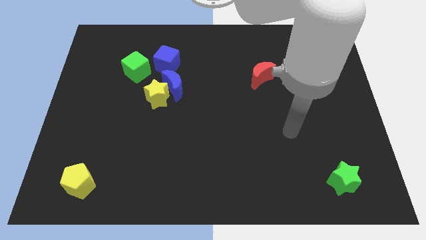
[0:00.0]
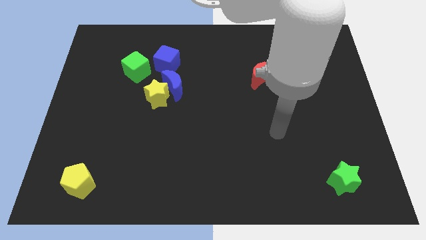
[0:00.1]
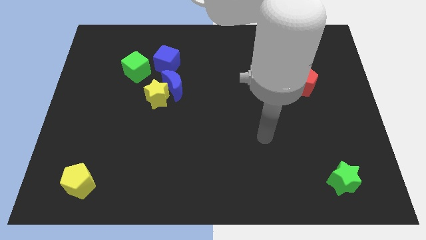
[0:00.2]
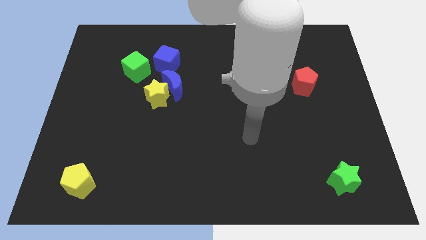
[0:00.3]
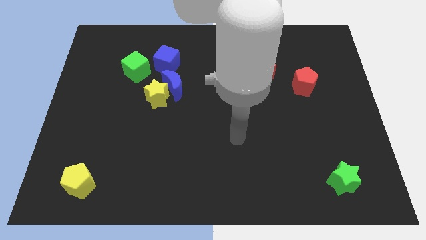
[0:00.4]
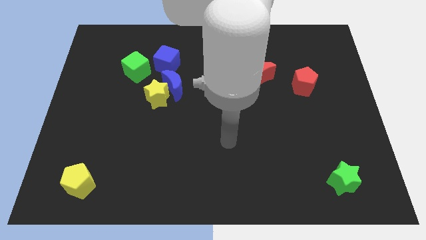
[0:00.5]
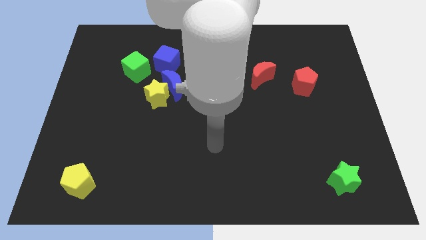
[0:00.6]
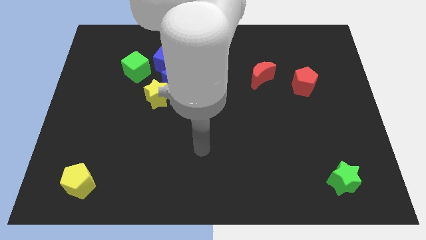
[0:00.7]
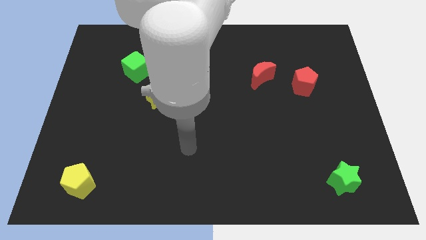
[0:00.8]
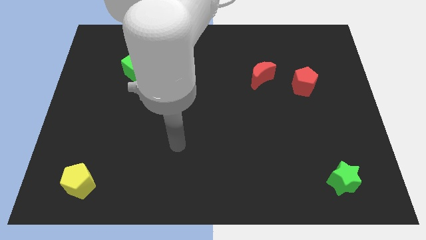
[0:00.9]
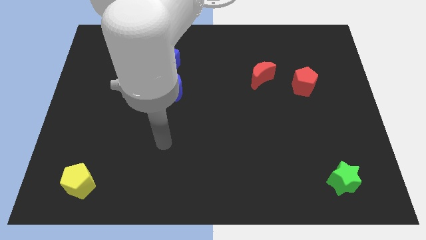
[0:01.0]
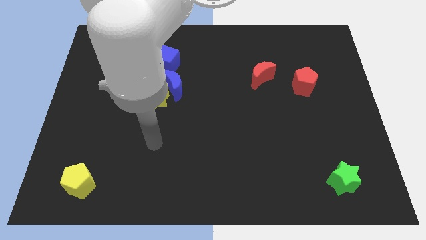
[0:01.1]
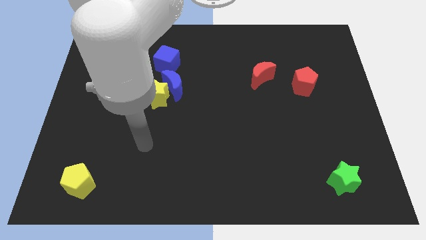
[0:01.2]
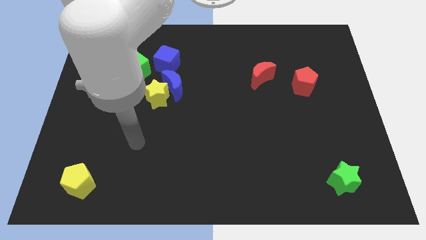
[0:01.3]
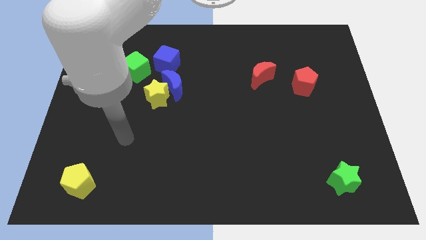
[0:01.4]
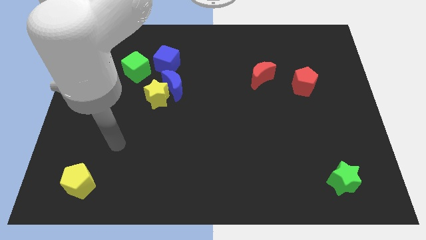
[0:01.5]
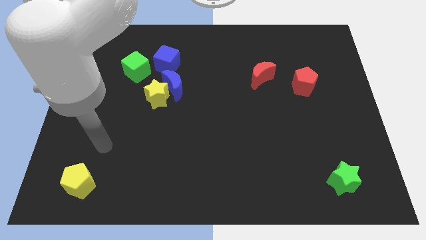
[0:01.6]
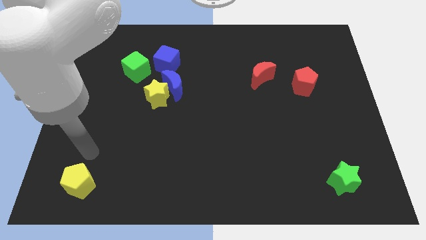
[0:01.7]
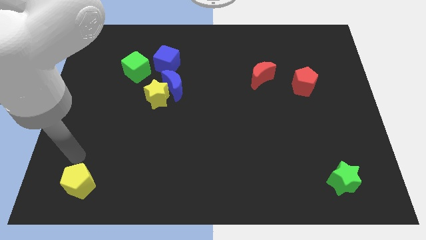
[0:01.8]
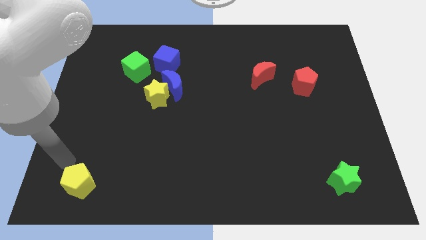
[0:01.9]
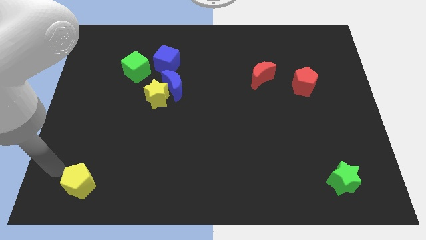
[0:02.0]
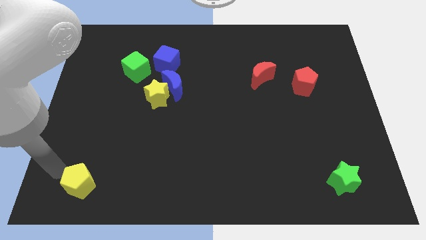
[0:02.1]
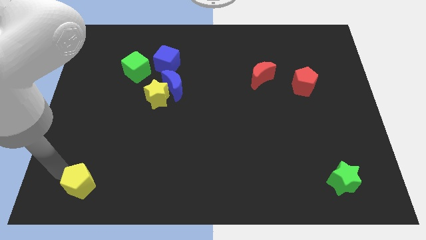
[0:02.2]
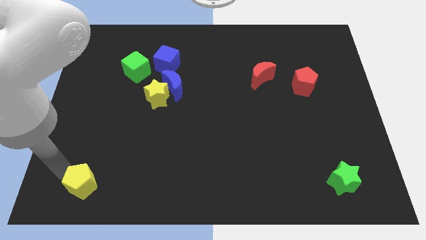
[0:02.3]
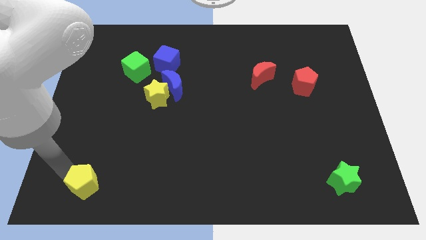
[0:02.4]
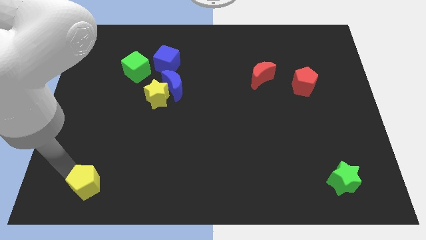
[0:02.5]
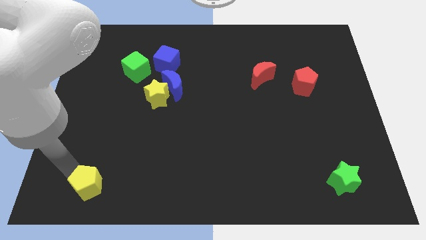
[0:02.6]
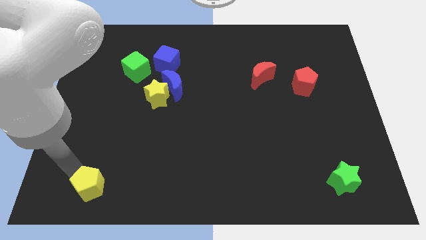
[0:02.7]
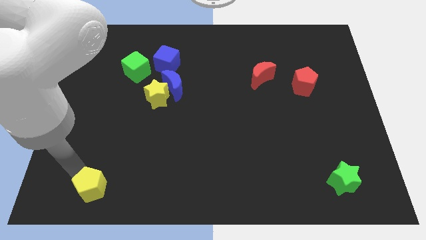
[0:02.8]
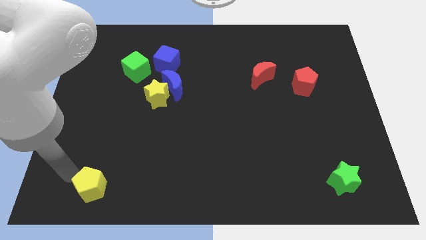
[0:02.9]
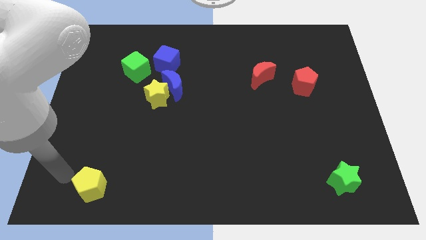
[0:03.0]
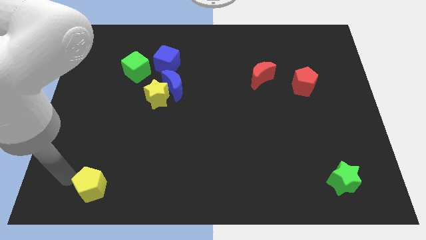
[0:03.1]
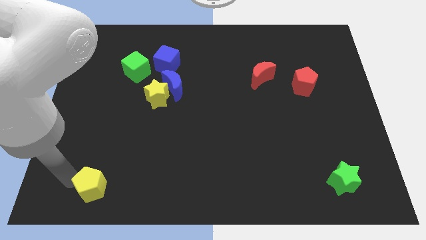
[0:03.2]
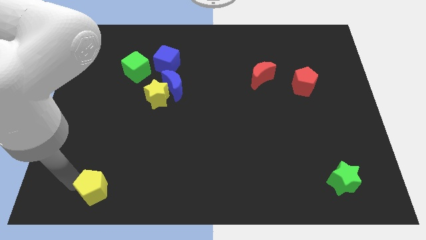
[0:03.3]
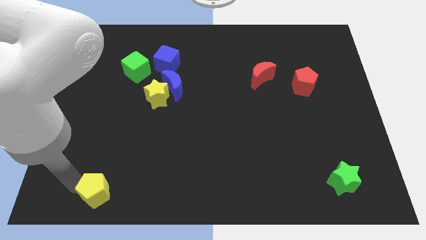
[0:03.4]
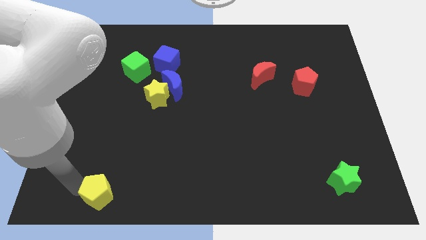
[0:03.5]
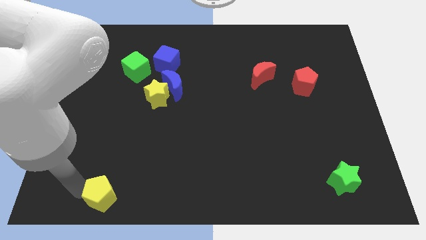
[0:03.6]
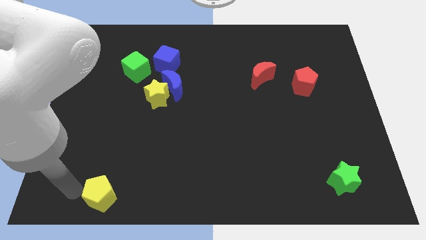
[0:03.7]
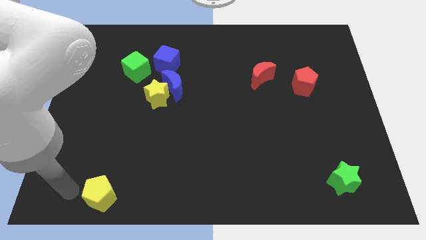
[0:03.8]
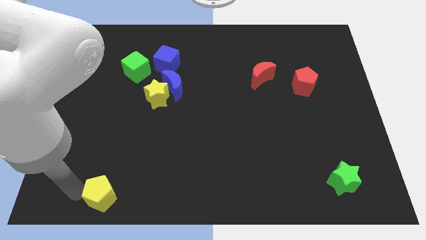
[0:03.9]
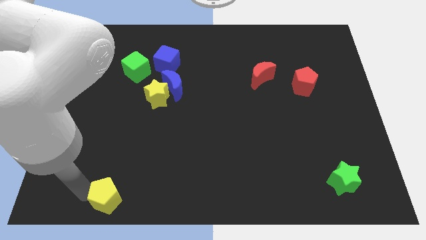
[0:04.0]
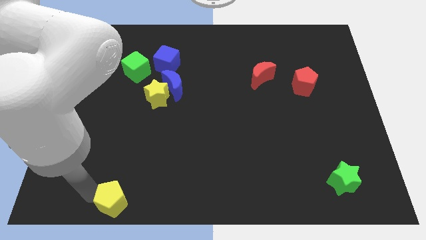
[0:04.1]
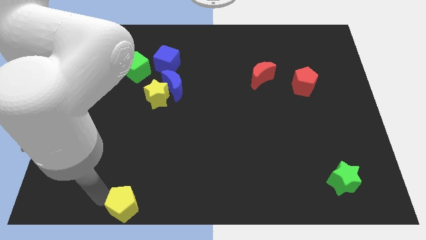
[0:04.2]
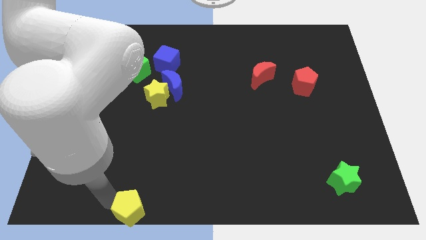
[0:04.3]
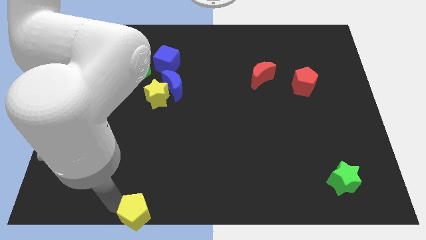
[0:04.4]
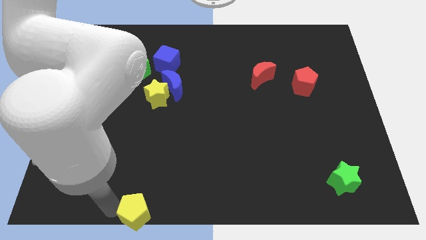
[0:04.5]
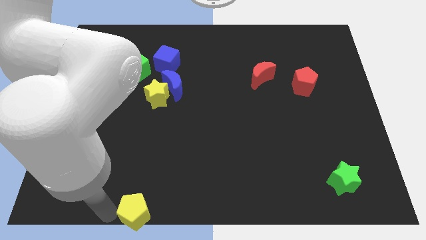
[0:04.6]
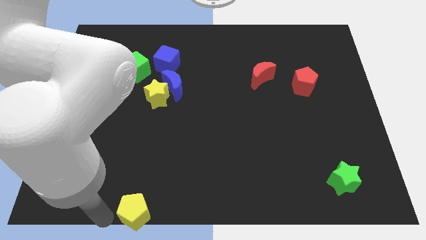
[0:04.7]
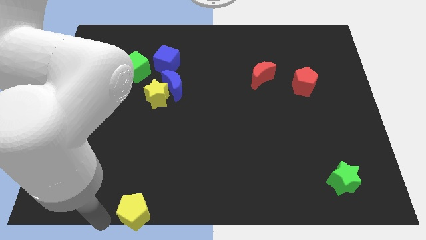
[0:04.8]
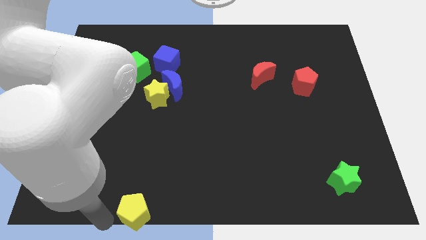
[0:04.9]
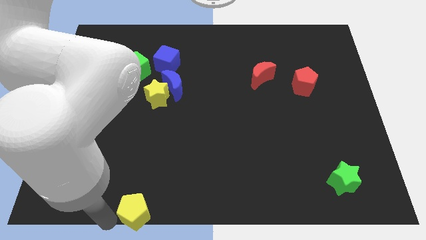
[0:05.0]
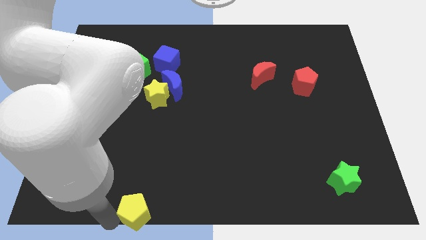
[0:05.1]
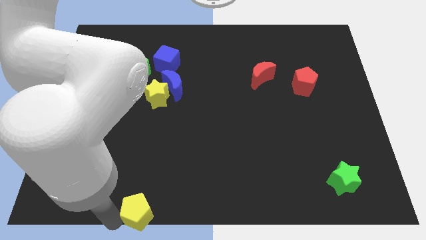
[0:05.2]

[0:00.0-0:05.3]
put the yellow pentagon to the bottom

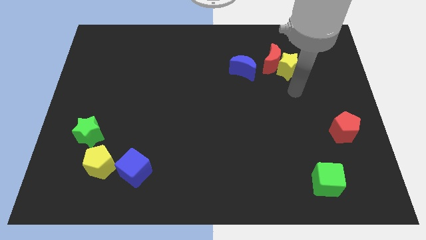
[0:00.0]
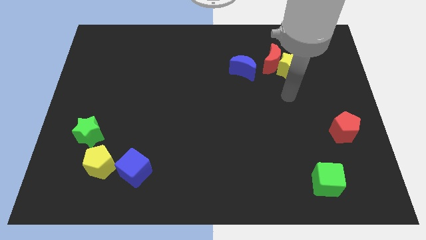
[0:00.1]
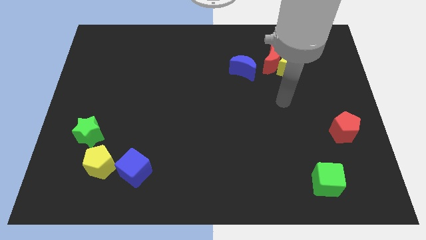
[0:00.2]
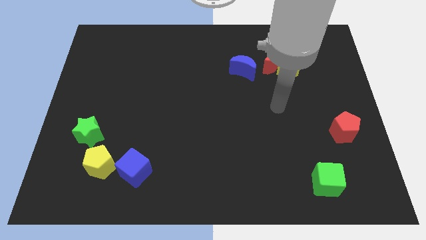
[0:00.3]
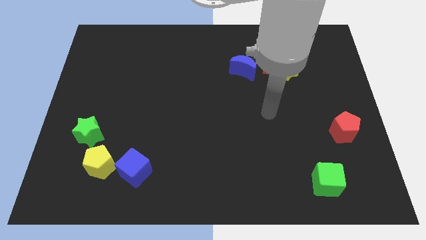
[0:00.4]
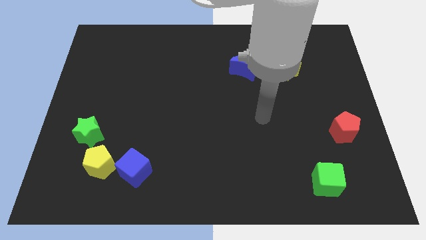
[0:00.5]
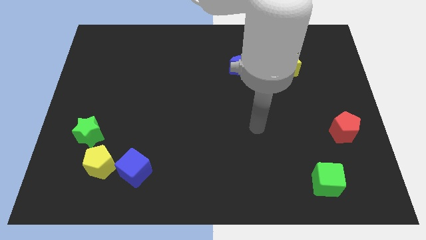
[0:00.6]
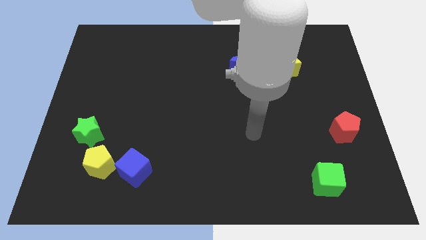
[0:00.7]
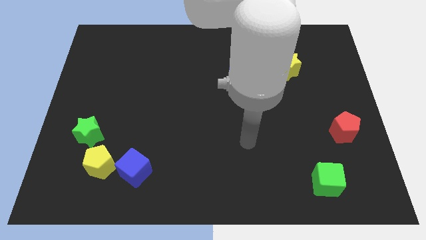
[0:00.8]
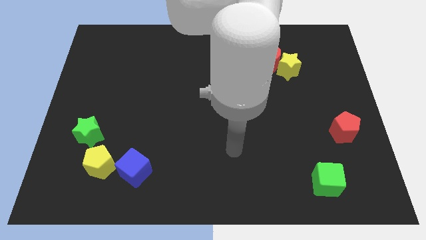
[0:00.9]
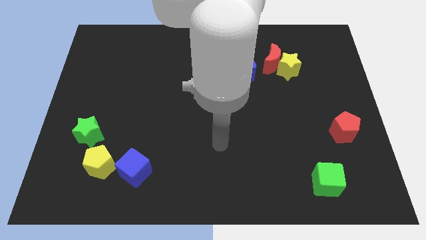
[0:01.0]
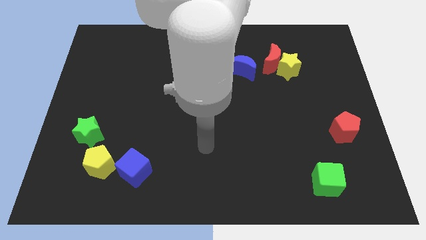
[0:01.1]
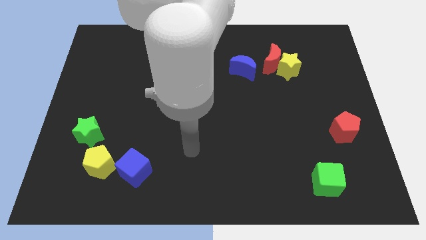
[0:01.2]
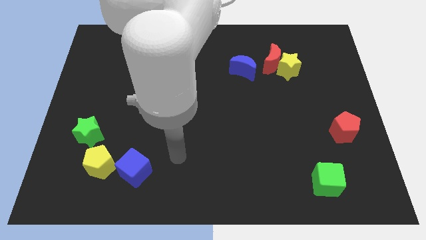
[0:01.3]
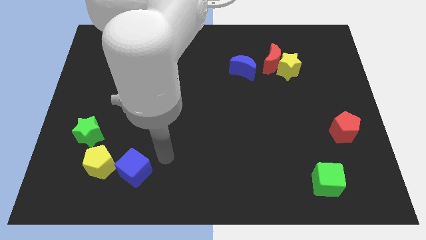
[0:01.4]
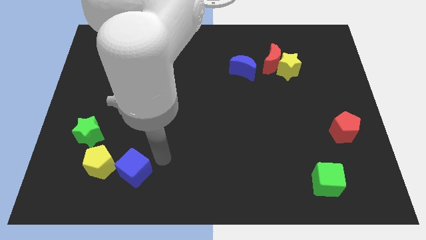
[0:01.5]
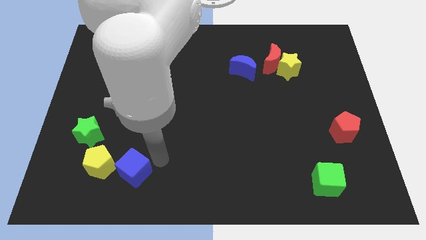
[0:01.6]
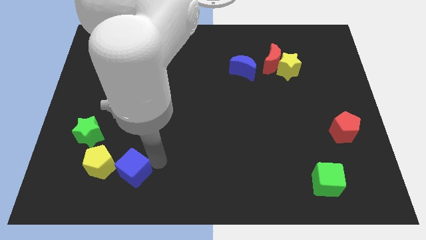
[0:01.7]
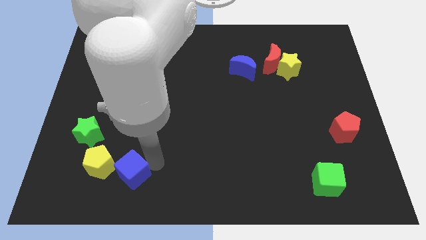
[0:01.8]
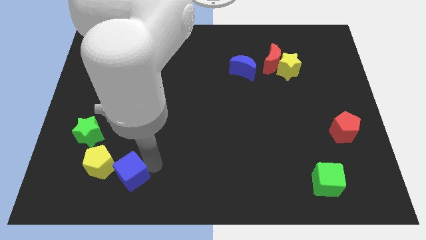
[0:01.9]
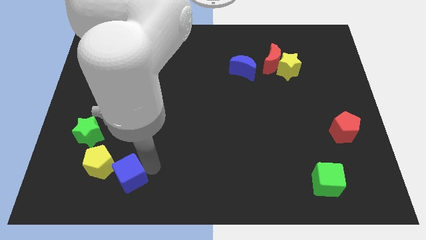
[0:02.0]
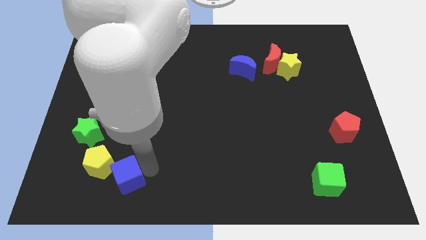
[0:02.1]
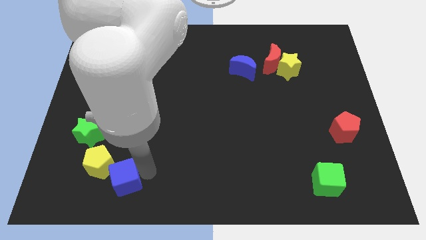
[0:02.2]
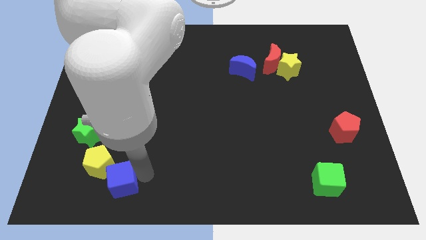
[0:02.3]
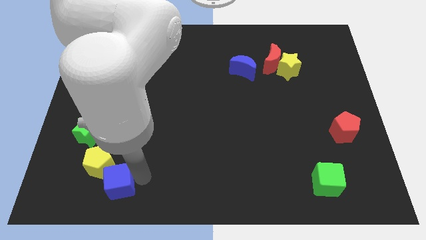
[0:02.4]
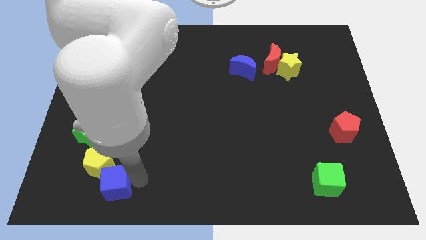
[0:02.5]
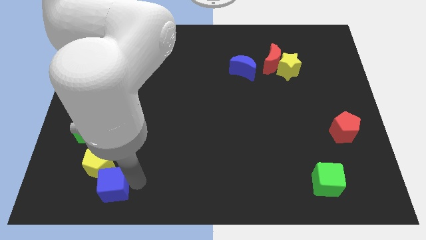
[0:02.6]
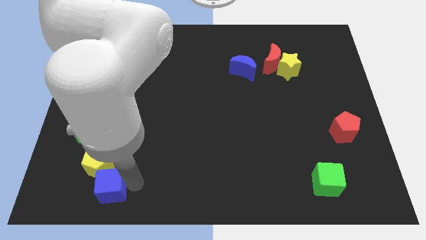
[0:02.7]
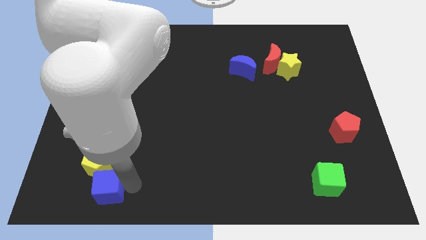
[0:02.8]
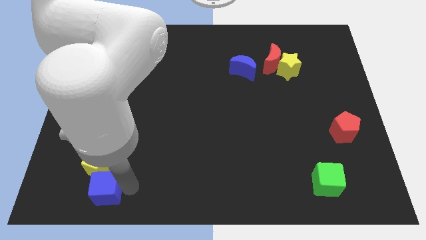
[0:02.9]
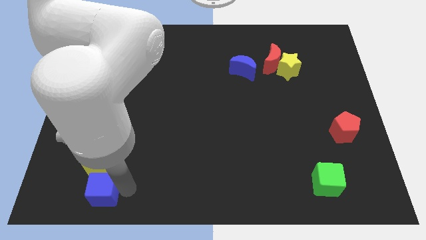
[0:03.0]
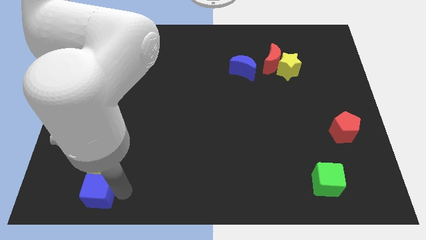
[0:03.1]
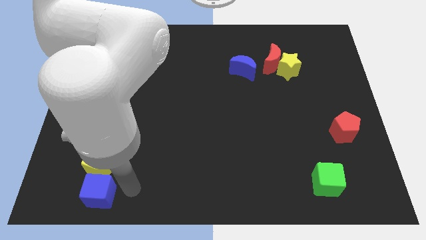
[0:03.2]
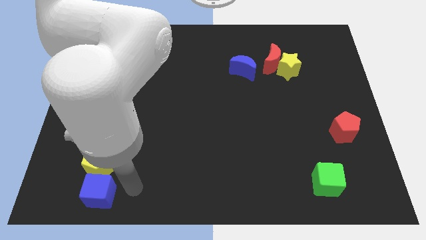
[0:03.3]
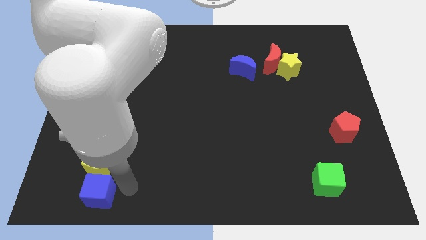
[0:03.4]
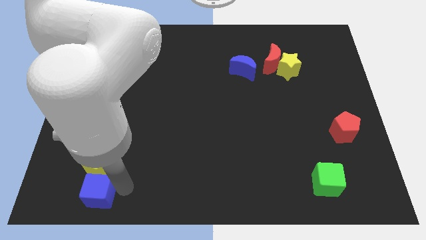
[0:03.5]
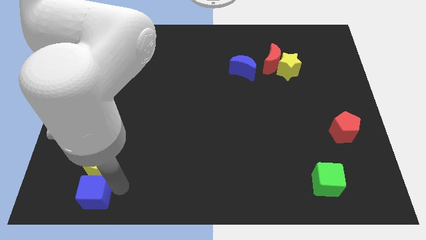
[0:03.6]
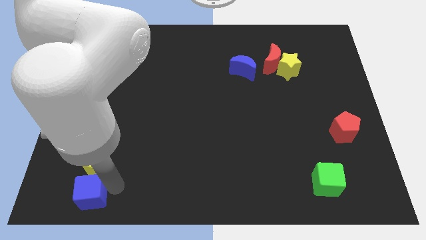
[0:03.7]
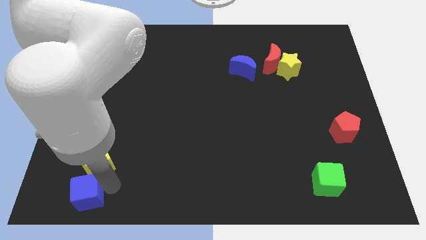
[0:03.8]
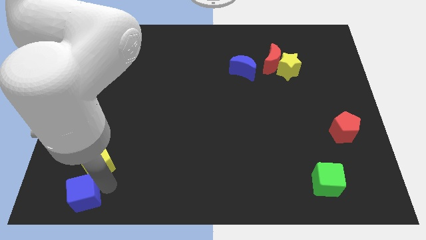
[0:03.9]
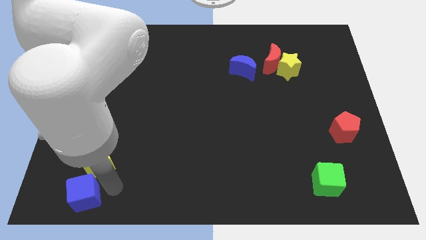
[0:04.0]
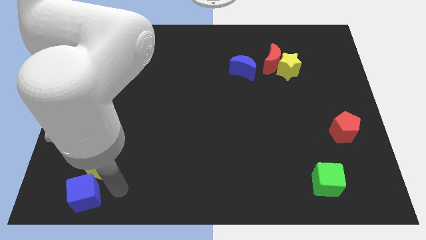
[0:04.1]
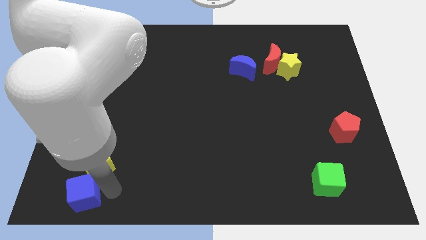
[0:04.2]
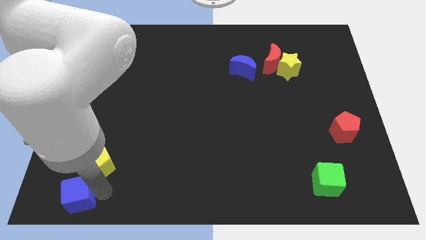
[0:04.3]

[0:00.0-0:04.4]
push the blue cube to the bottom left corner
